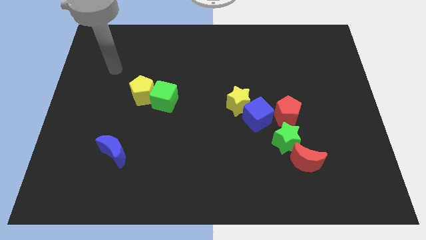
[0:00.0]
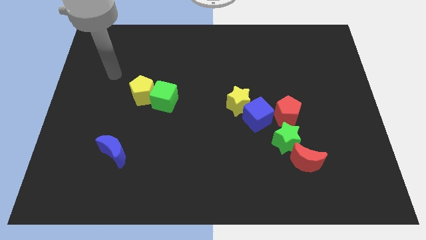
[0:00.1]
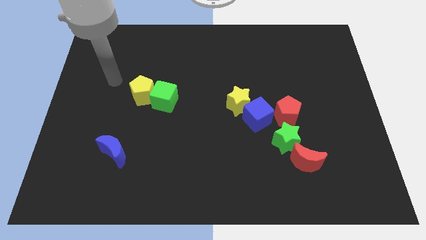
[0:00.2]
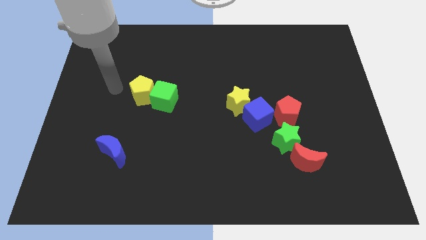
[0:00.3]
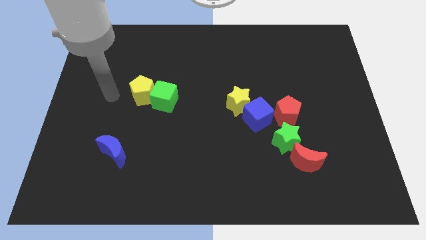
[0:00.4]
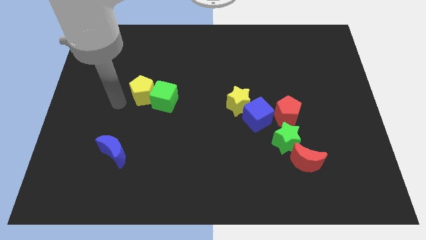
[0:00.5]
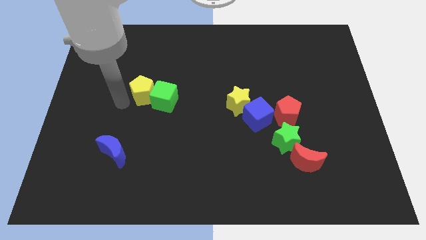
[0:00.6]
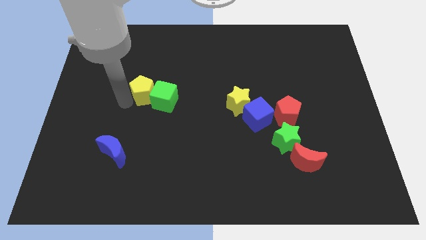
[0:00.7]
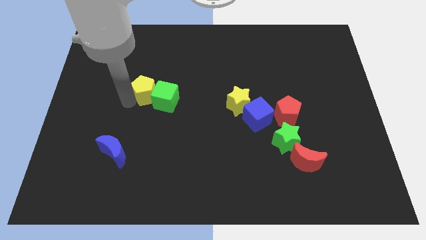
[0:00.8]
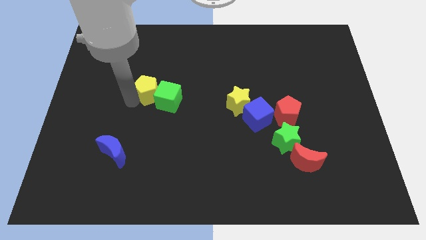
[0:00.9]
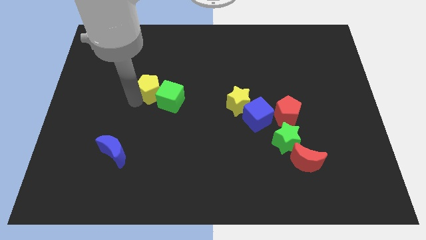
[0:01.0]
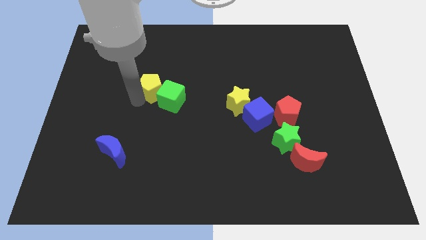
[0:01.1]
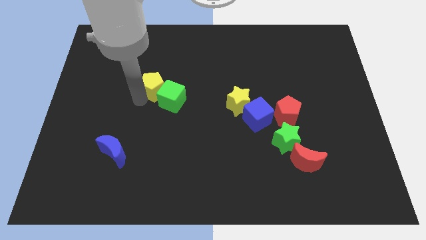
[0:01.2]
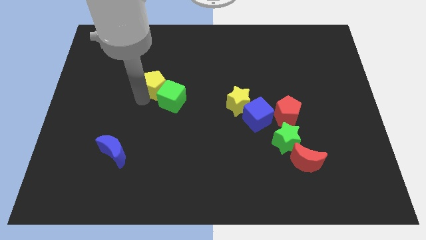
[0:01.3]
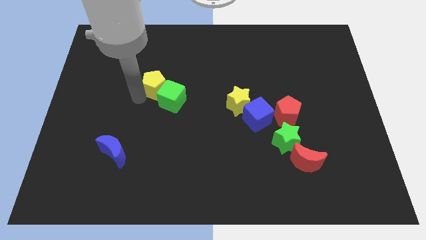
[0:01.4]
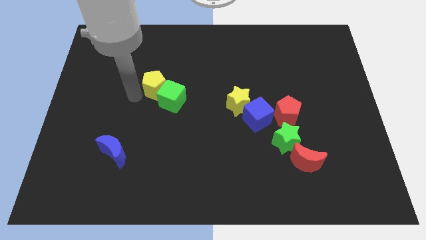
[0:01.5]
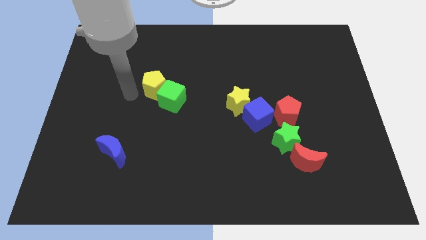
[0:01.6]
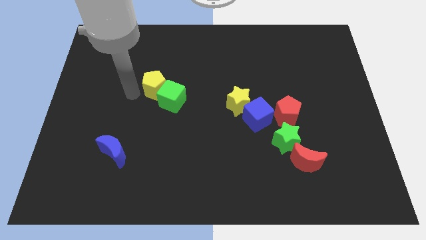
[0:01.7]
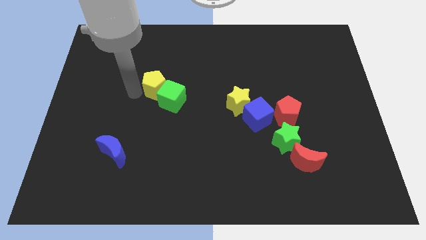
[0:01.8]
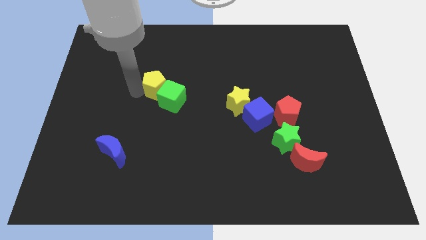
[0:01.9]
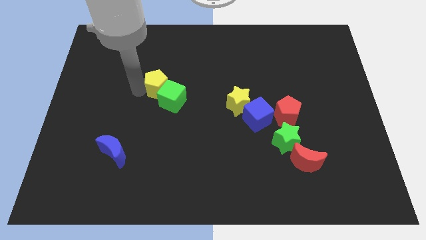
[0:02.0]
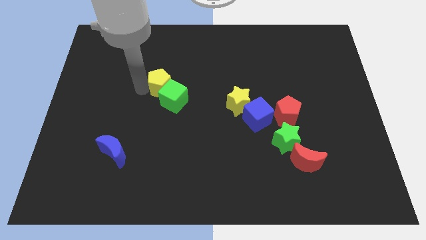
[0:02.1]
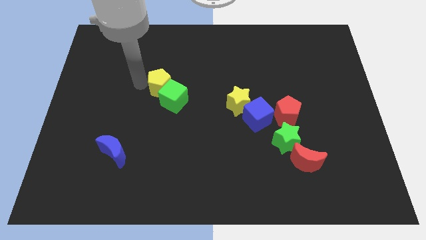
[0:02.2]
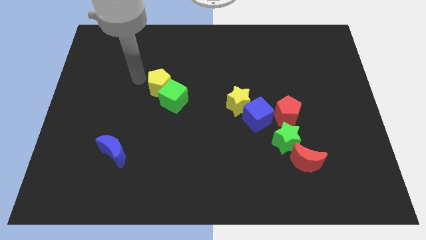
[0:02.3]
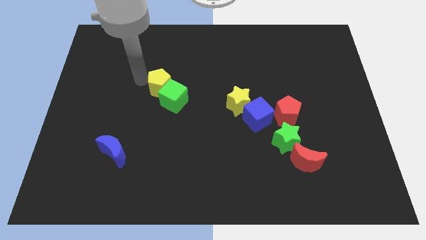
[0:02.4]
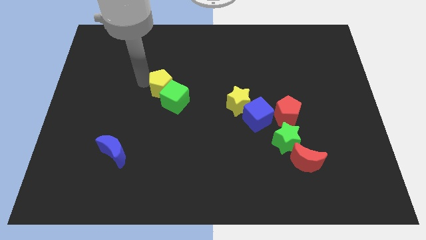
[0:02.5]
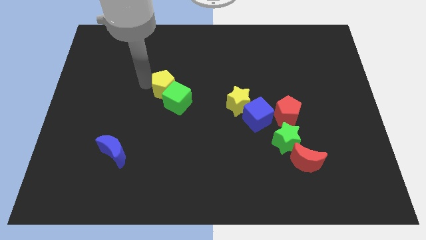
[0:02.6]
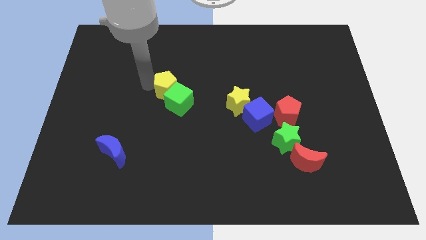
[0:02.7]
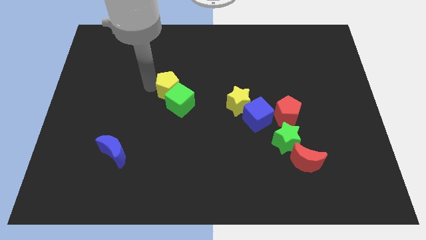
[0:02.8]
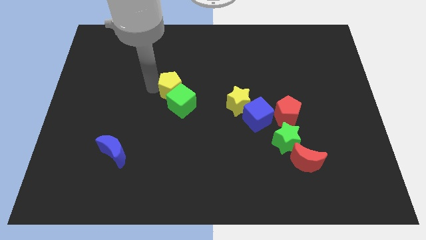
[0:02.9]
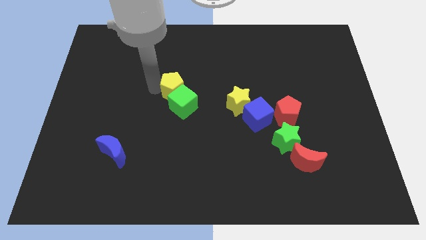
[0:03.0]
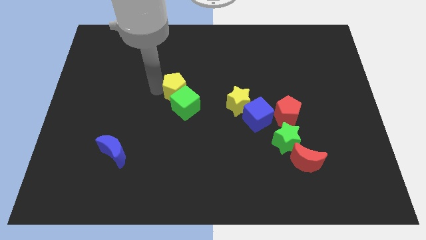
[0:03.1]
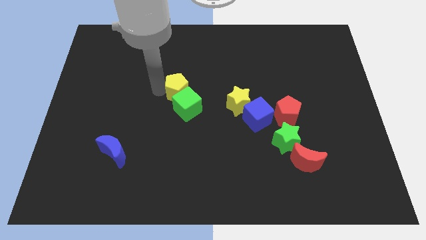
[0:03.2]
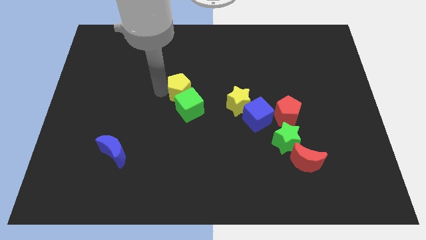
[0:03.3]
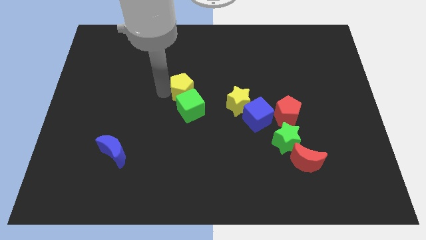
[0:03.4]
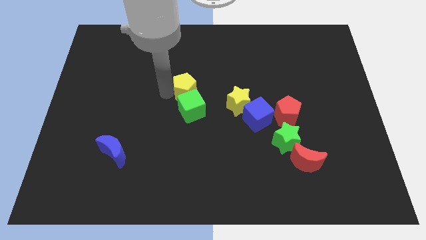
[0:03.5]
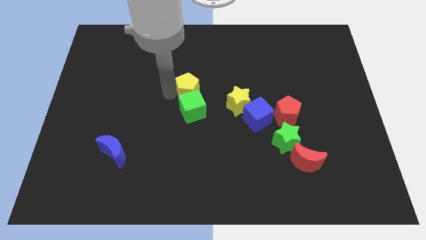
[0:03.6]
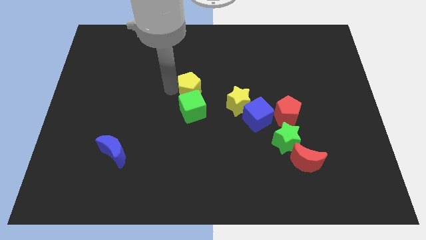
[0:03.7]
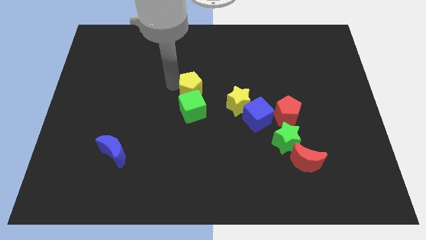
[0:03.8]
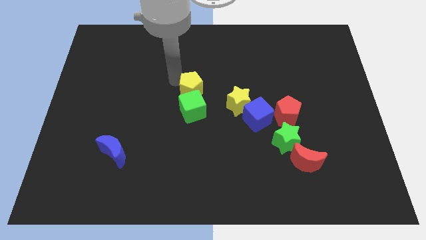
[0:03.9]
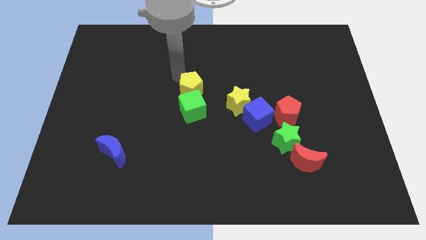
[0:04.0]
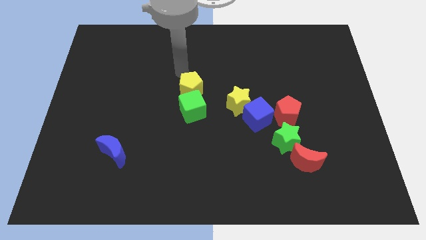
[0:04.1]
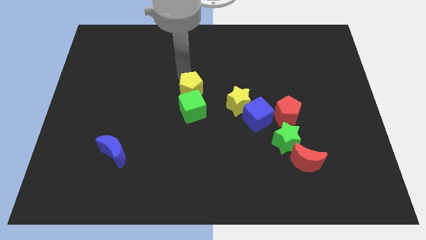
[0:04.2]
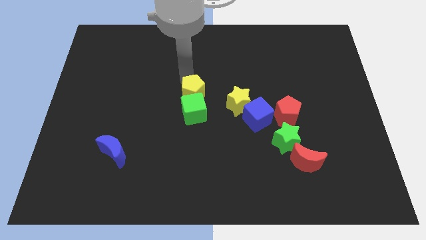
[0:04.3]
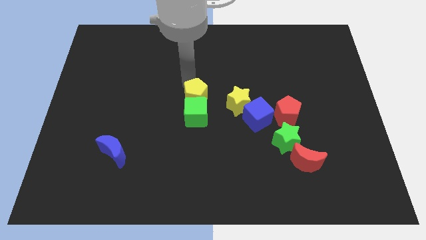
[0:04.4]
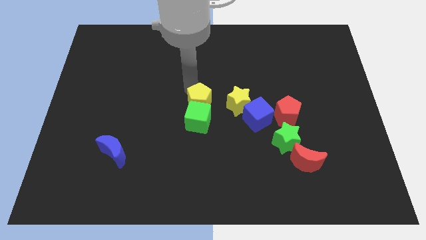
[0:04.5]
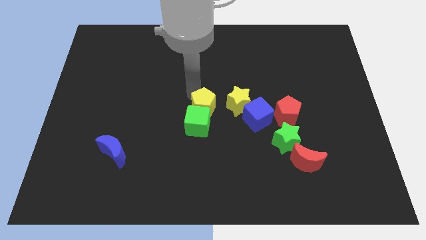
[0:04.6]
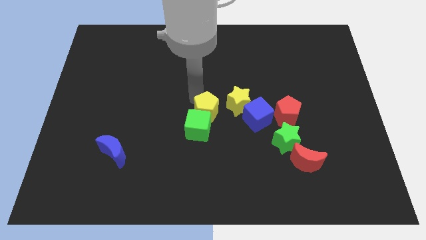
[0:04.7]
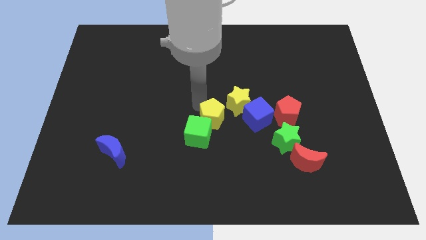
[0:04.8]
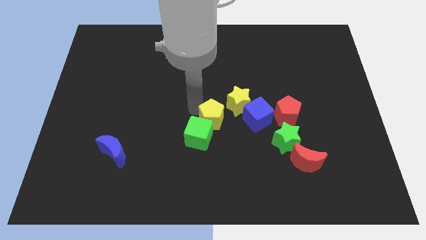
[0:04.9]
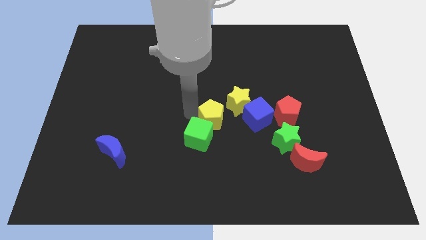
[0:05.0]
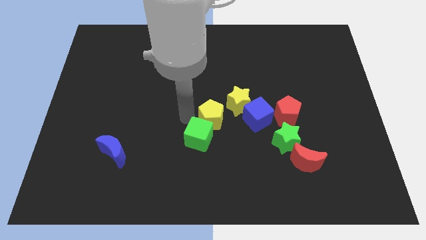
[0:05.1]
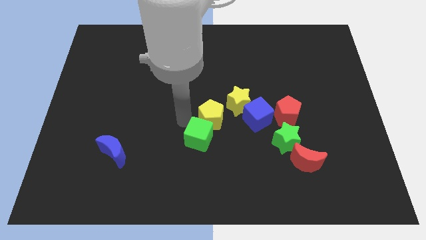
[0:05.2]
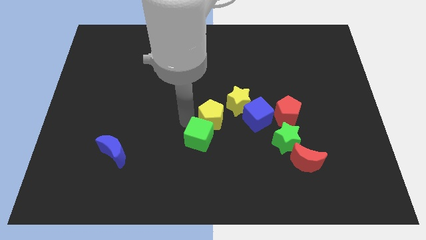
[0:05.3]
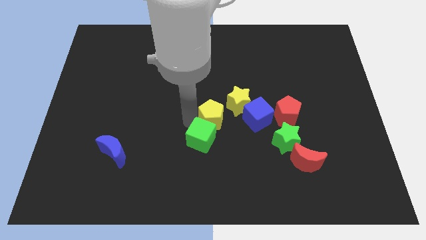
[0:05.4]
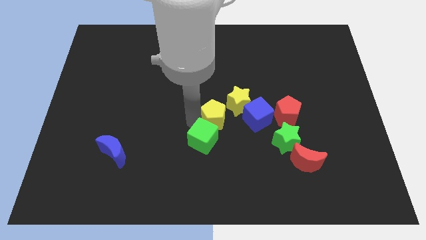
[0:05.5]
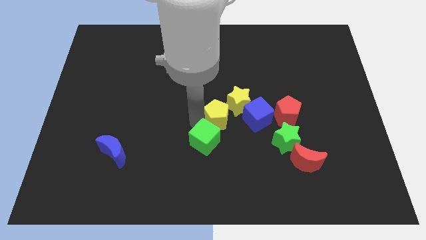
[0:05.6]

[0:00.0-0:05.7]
slide the yellow pentagon to the left side of the red pentagon

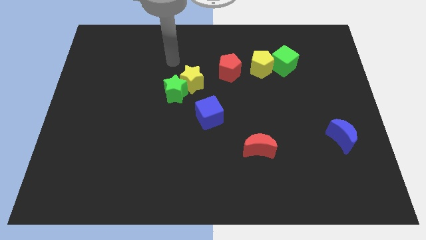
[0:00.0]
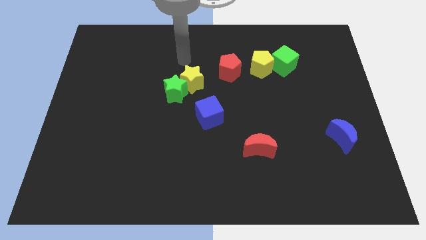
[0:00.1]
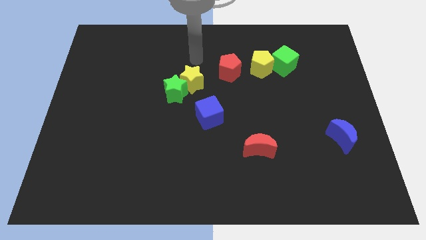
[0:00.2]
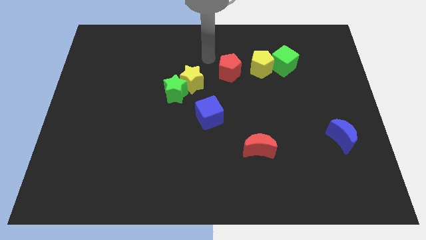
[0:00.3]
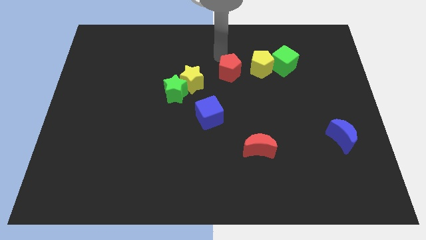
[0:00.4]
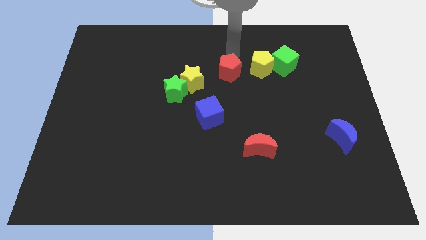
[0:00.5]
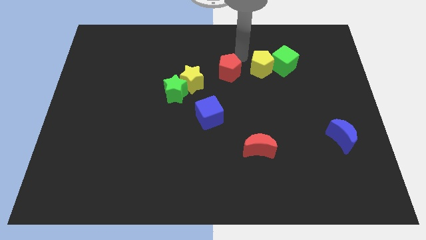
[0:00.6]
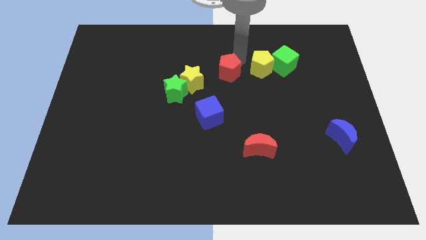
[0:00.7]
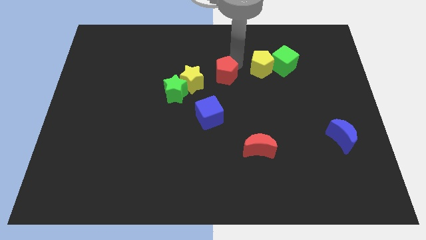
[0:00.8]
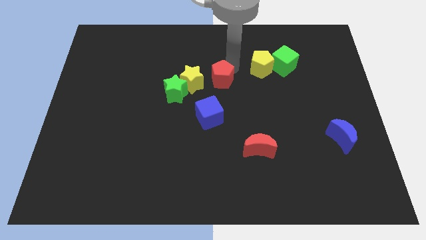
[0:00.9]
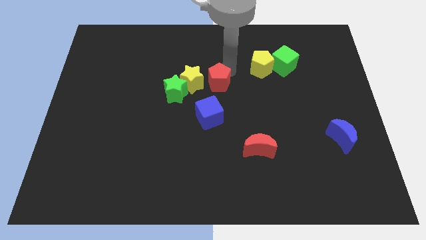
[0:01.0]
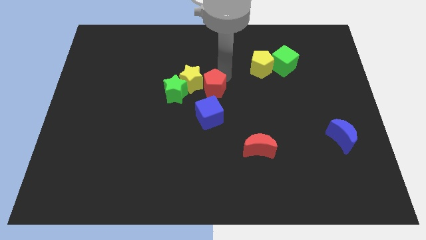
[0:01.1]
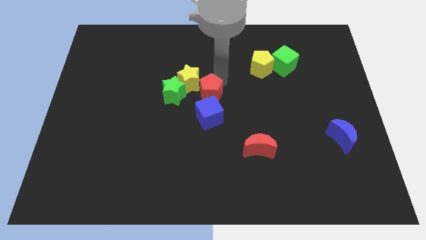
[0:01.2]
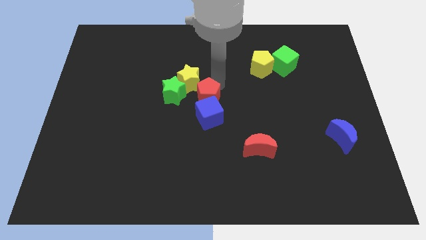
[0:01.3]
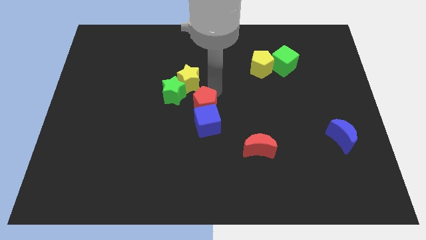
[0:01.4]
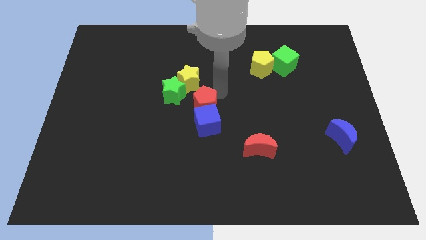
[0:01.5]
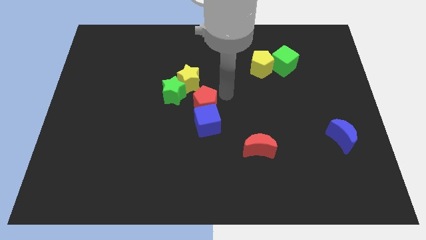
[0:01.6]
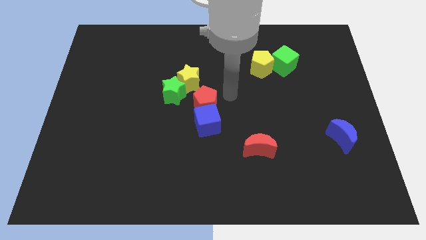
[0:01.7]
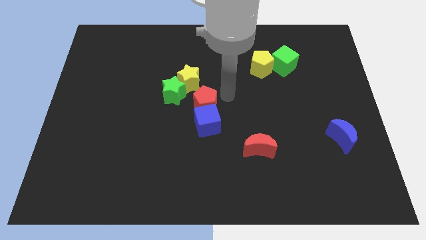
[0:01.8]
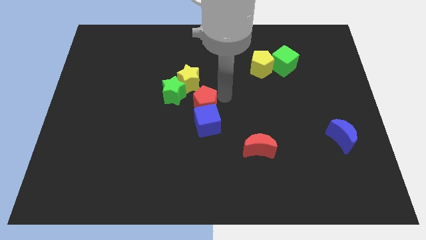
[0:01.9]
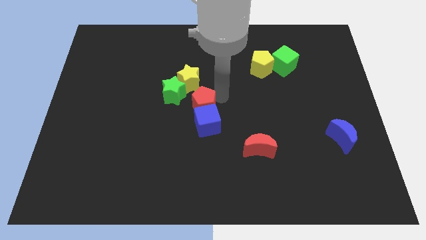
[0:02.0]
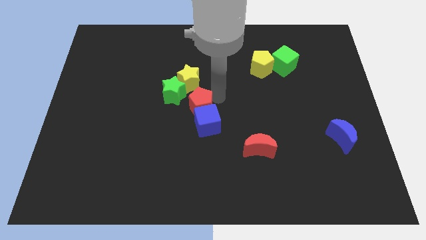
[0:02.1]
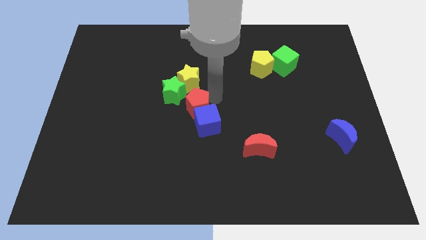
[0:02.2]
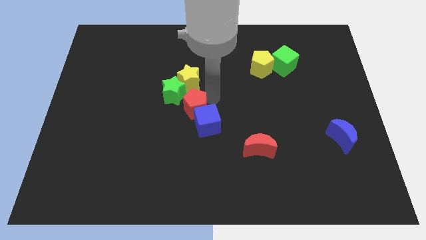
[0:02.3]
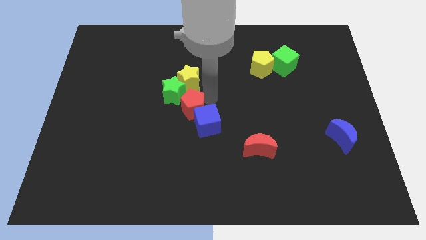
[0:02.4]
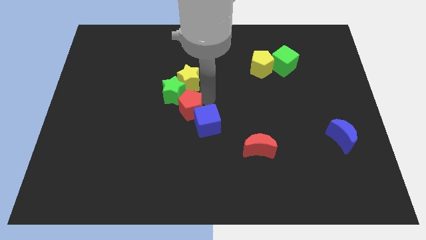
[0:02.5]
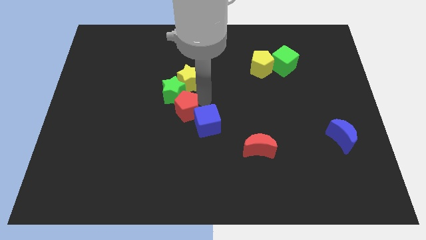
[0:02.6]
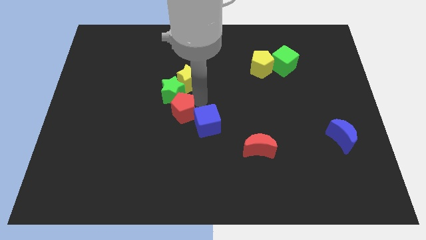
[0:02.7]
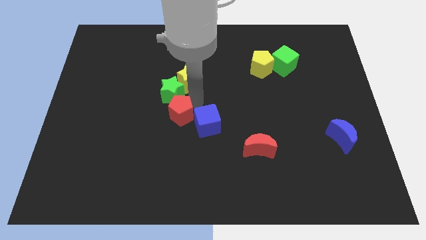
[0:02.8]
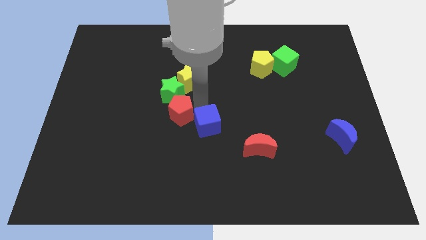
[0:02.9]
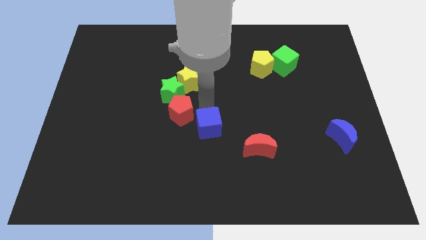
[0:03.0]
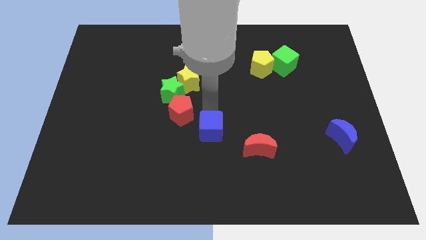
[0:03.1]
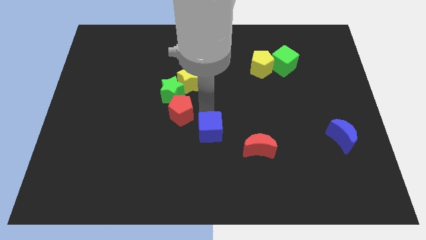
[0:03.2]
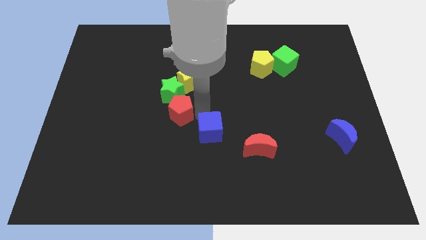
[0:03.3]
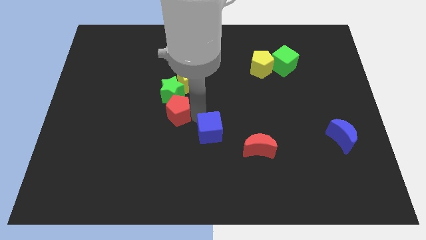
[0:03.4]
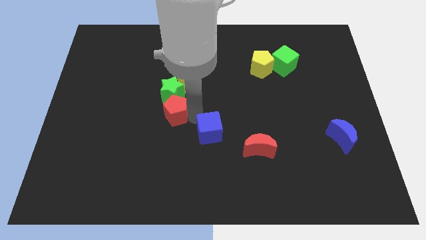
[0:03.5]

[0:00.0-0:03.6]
move the red pentagon diagonally down and to the left of the green star
